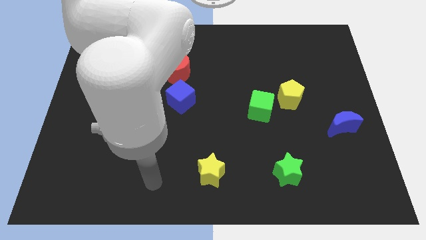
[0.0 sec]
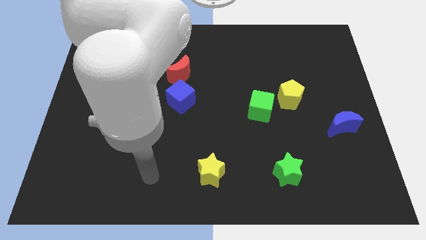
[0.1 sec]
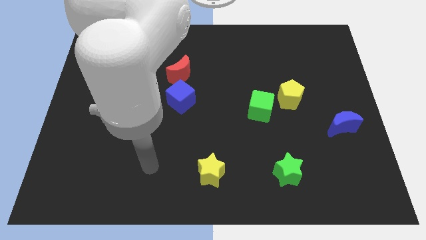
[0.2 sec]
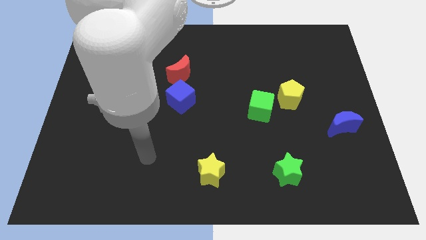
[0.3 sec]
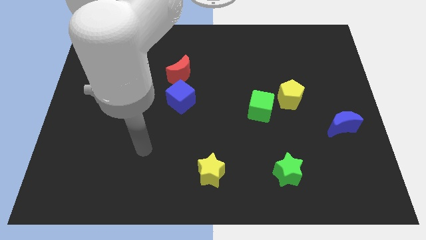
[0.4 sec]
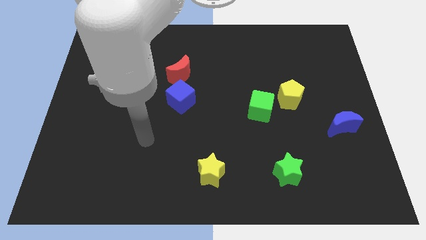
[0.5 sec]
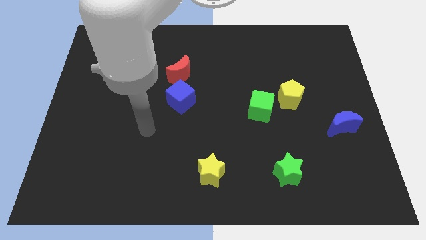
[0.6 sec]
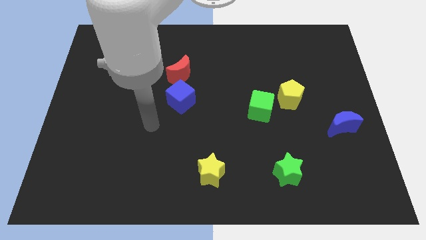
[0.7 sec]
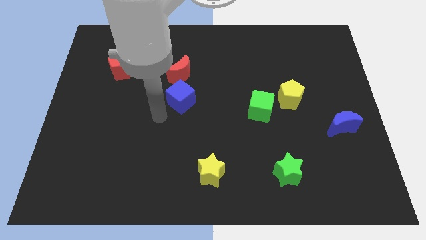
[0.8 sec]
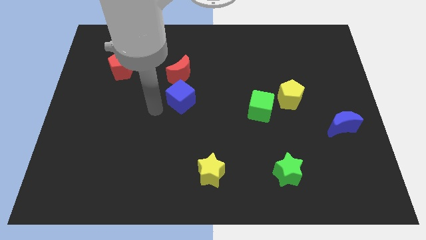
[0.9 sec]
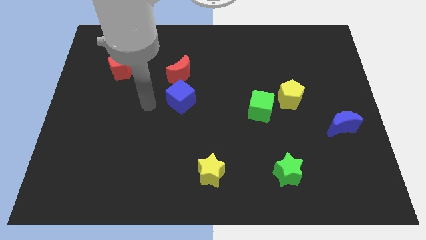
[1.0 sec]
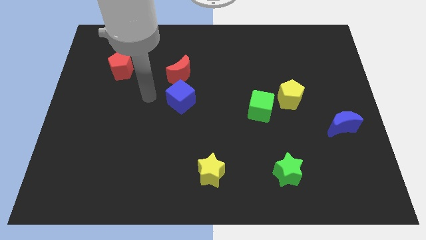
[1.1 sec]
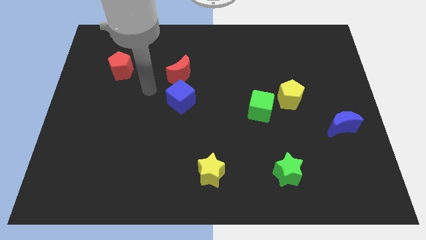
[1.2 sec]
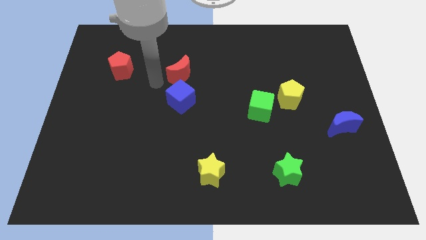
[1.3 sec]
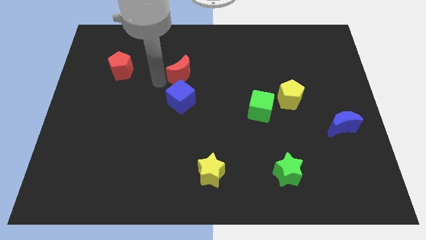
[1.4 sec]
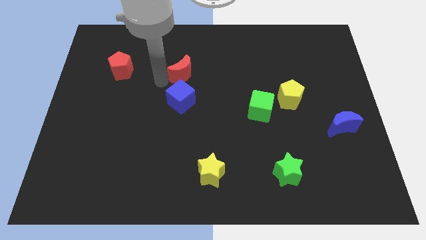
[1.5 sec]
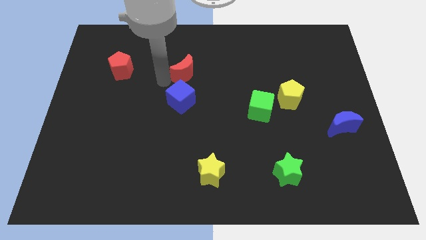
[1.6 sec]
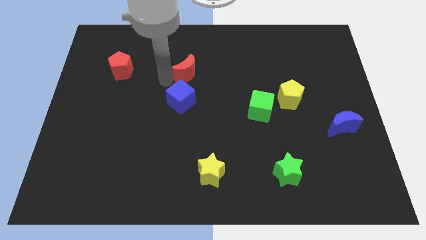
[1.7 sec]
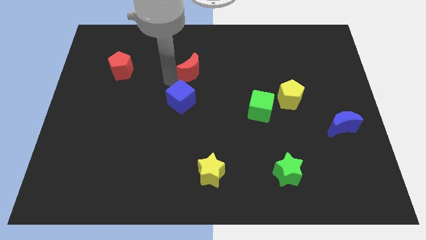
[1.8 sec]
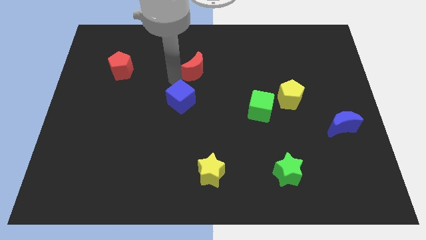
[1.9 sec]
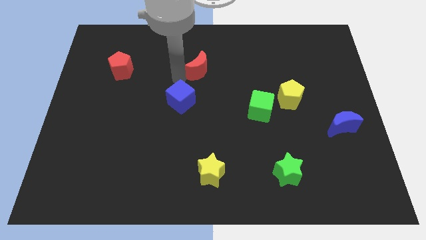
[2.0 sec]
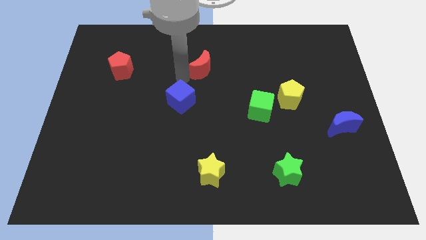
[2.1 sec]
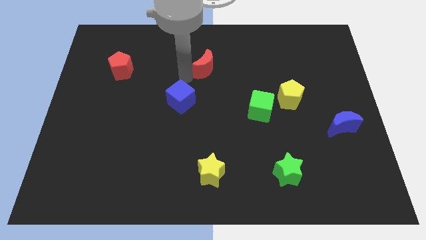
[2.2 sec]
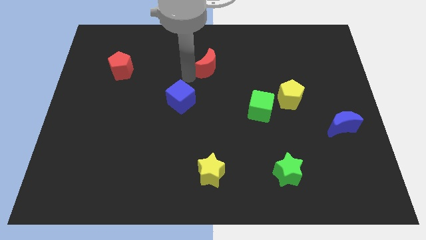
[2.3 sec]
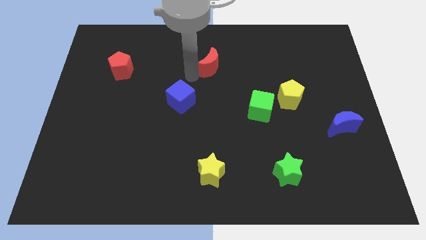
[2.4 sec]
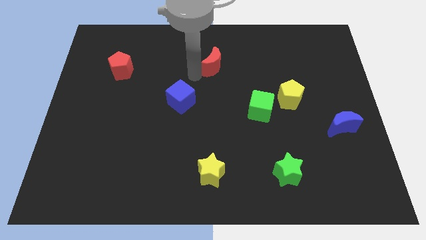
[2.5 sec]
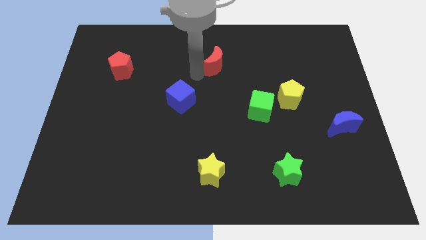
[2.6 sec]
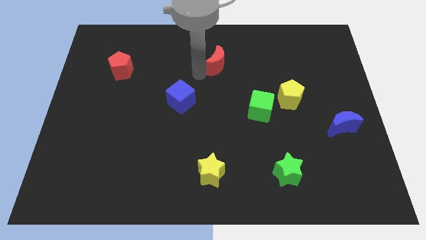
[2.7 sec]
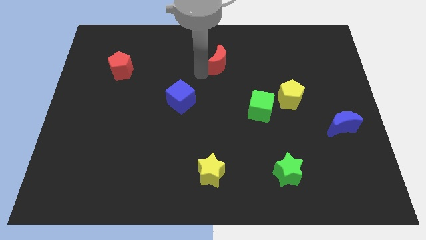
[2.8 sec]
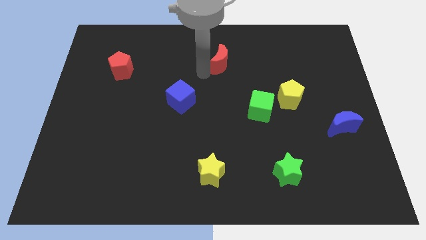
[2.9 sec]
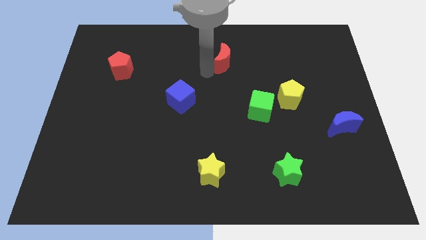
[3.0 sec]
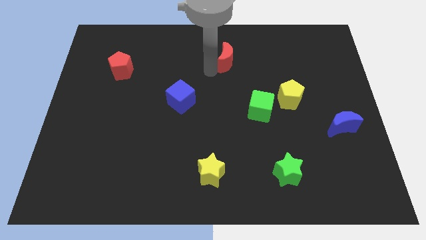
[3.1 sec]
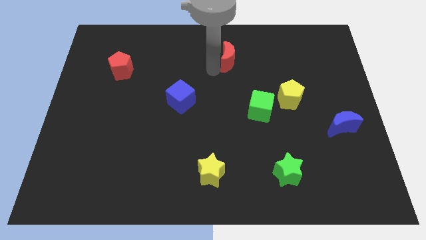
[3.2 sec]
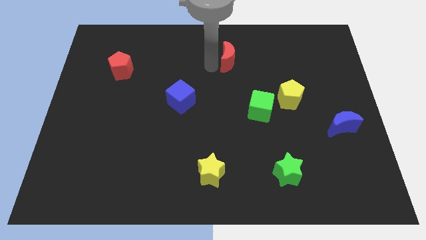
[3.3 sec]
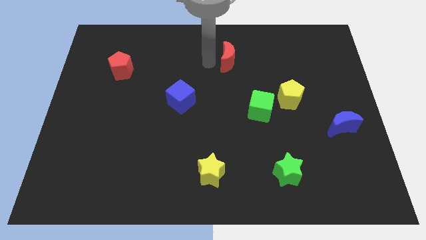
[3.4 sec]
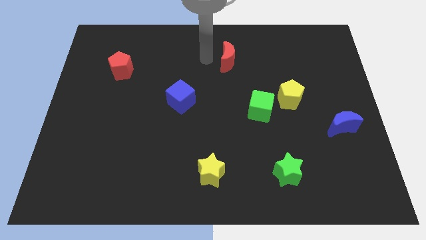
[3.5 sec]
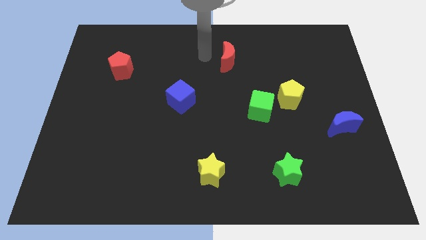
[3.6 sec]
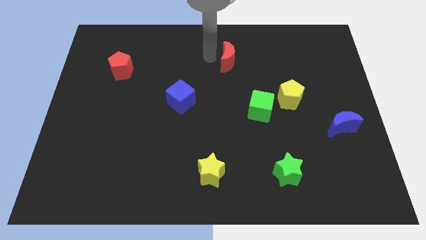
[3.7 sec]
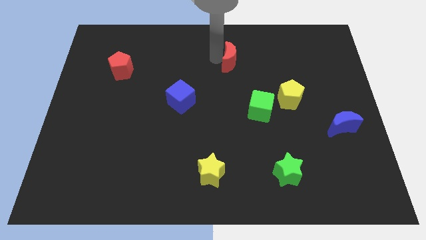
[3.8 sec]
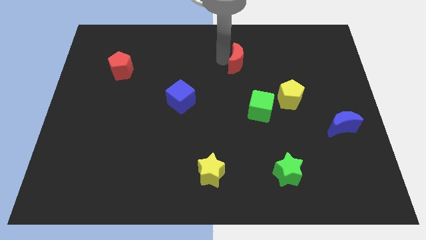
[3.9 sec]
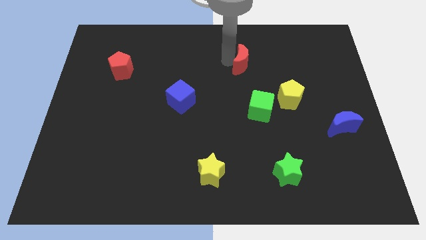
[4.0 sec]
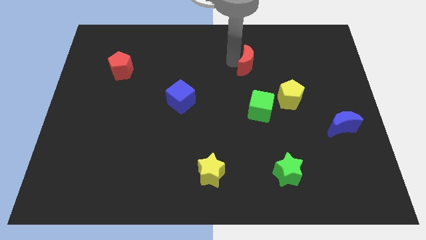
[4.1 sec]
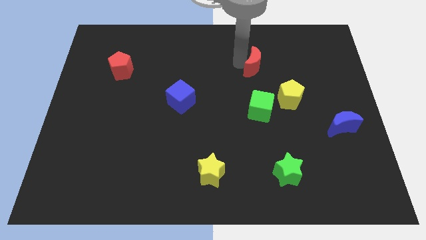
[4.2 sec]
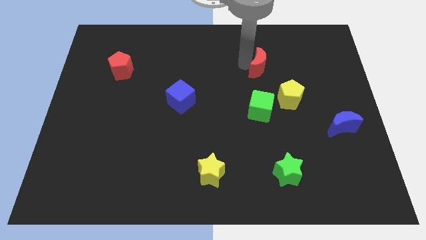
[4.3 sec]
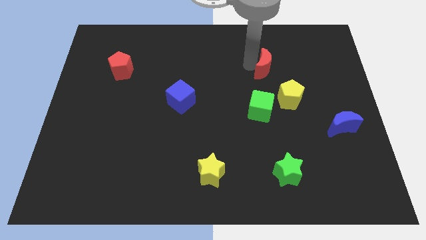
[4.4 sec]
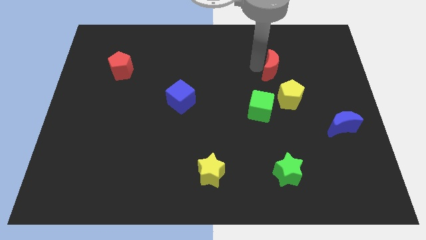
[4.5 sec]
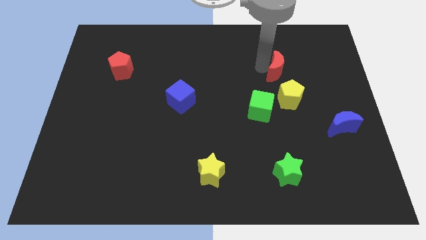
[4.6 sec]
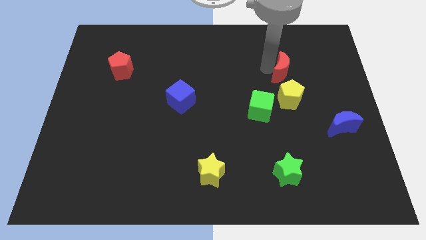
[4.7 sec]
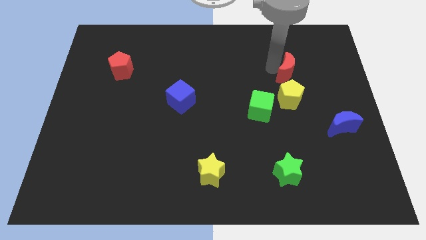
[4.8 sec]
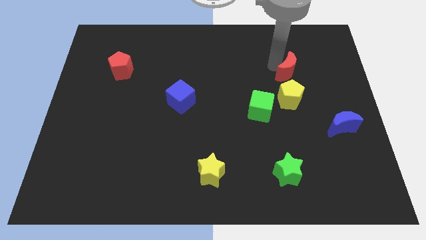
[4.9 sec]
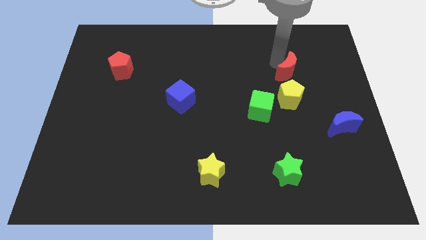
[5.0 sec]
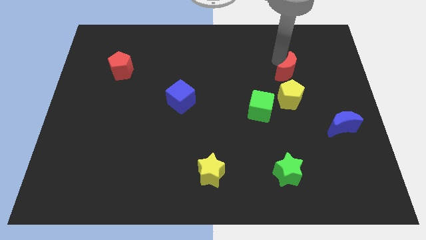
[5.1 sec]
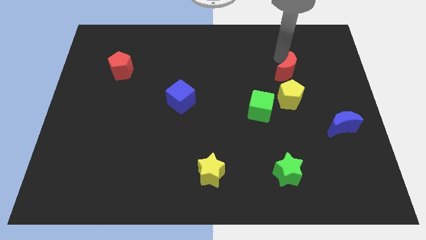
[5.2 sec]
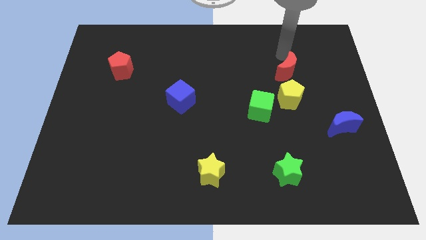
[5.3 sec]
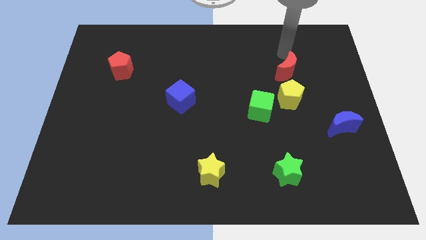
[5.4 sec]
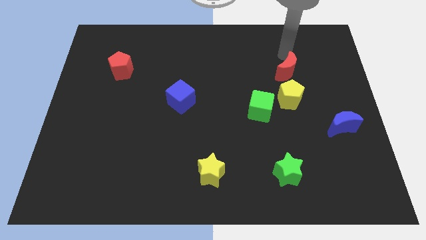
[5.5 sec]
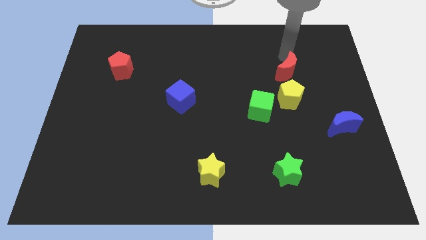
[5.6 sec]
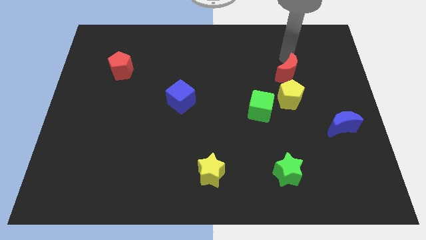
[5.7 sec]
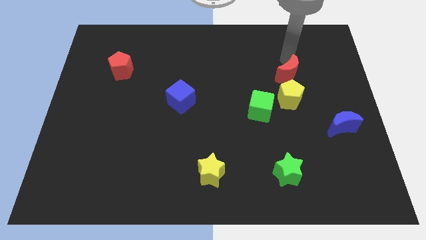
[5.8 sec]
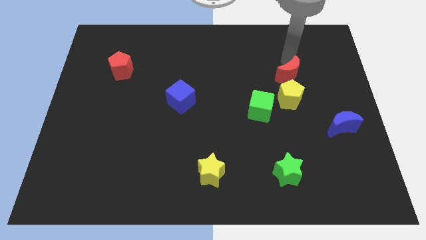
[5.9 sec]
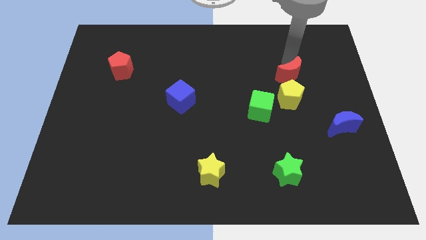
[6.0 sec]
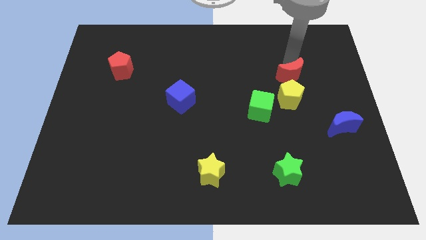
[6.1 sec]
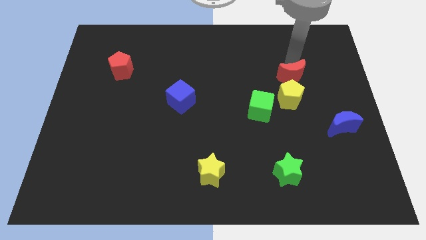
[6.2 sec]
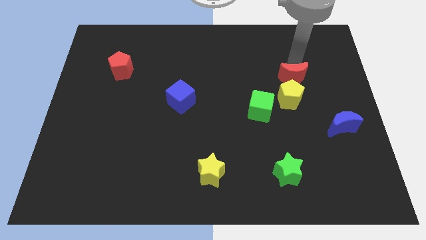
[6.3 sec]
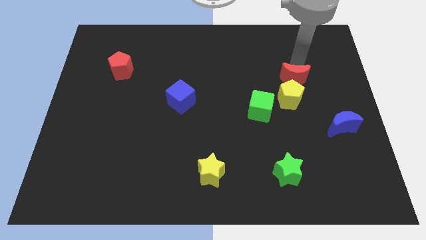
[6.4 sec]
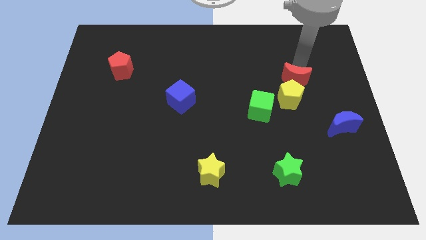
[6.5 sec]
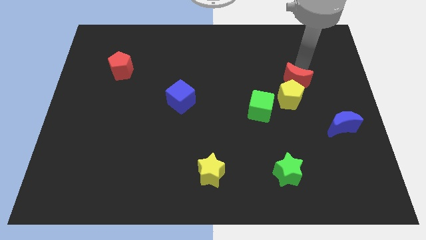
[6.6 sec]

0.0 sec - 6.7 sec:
push the red moon diagonally up and to the right of the green cube

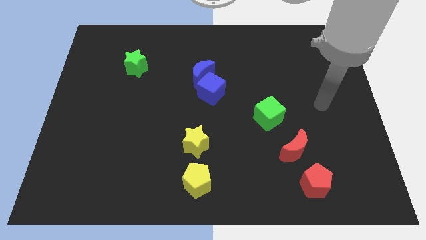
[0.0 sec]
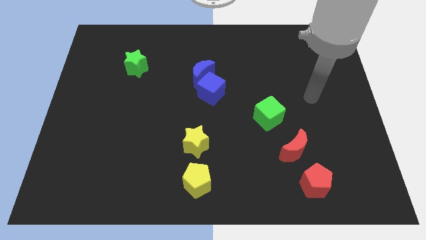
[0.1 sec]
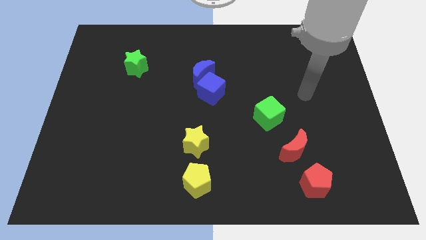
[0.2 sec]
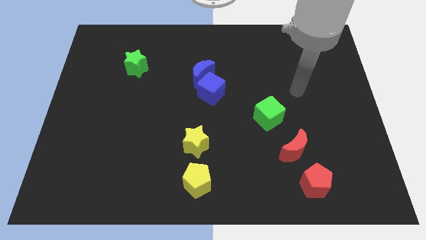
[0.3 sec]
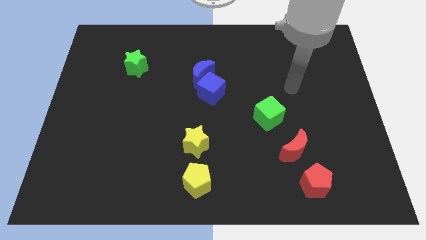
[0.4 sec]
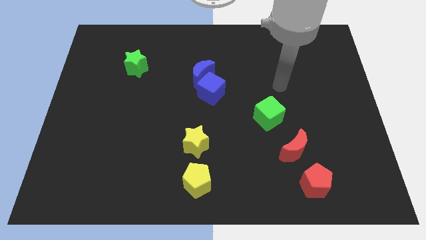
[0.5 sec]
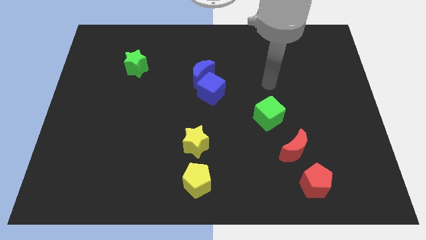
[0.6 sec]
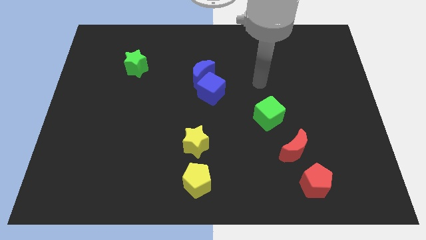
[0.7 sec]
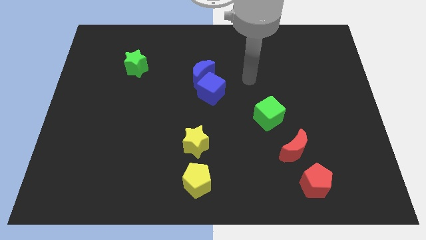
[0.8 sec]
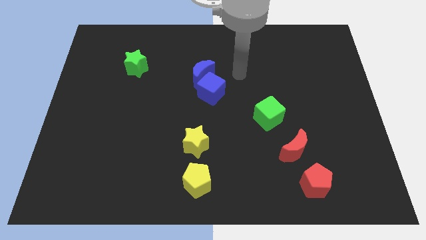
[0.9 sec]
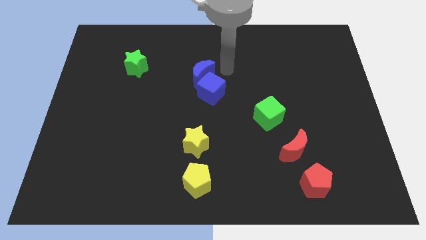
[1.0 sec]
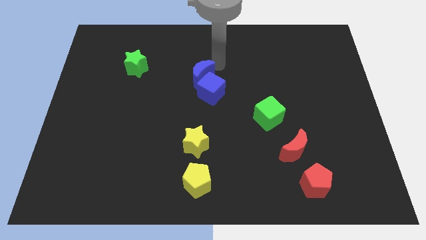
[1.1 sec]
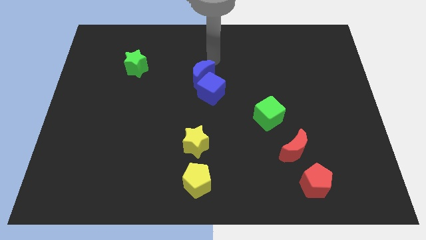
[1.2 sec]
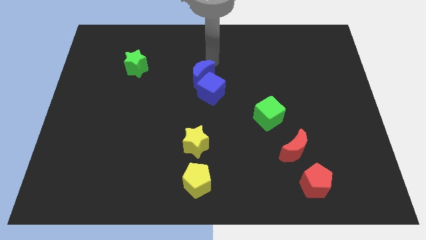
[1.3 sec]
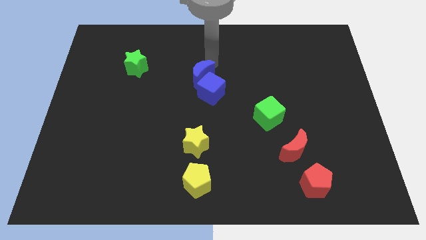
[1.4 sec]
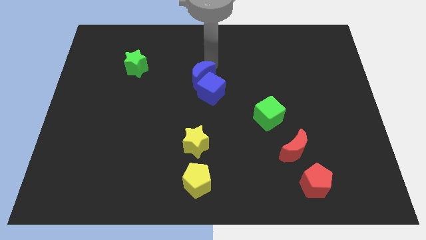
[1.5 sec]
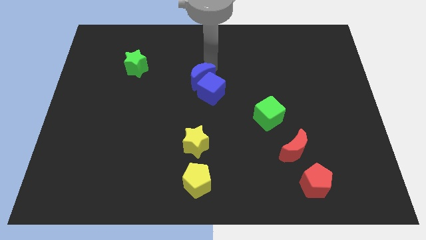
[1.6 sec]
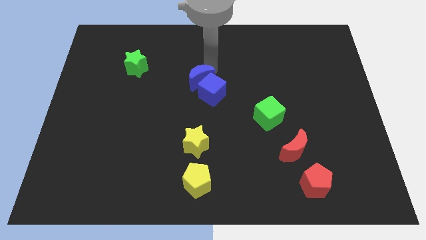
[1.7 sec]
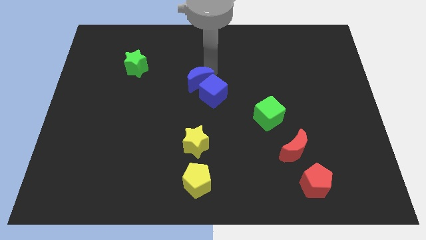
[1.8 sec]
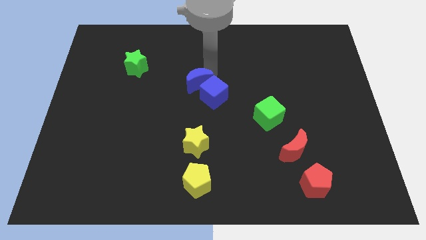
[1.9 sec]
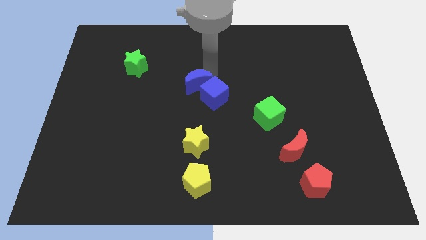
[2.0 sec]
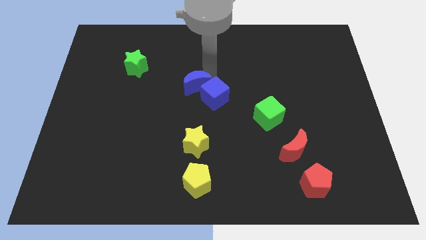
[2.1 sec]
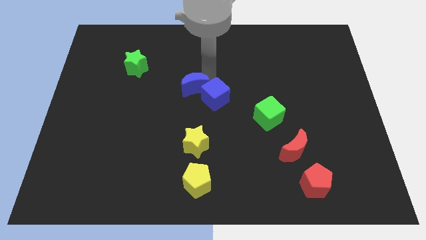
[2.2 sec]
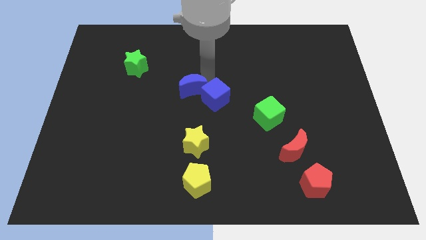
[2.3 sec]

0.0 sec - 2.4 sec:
push the blue moon to the top side of the yellow star
